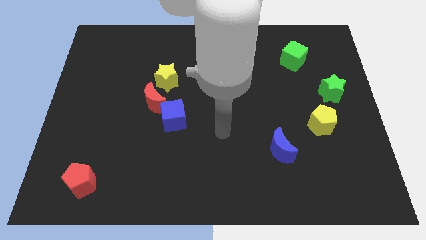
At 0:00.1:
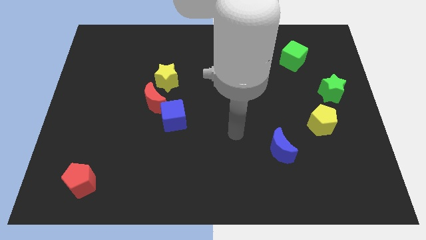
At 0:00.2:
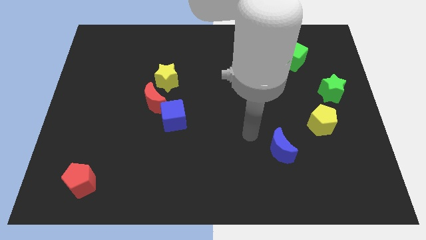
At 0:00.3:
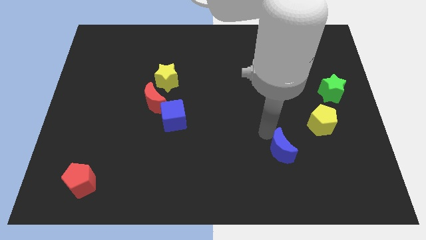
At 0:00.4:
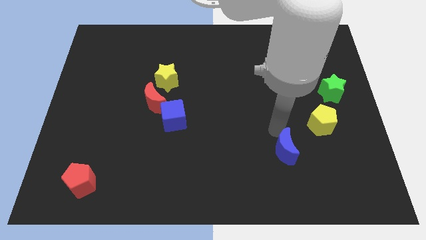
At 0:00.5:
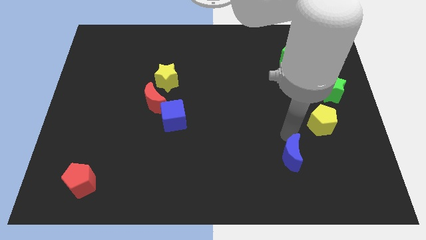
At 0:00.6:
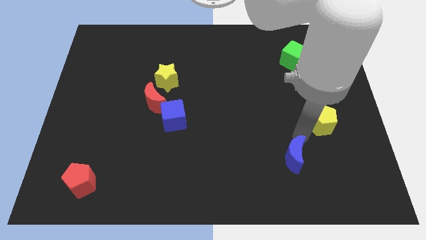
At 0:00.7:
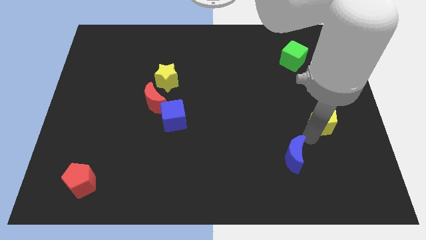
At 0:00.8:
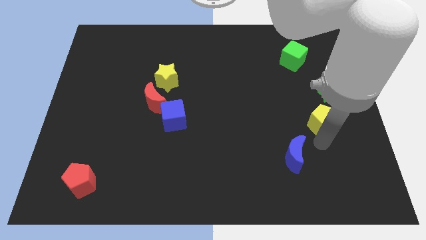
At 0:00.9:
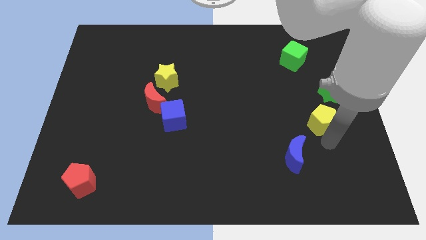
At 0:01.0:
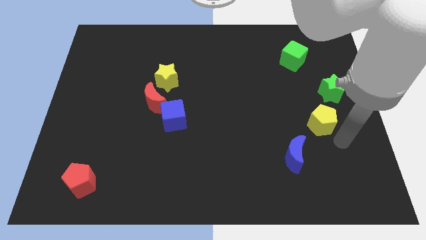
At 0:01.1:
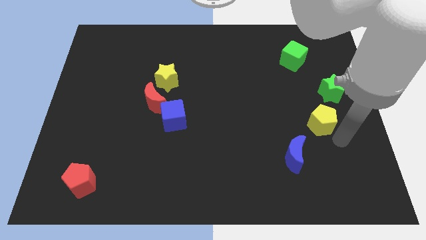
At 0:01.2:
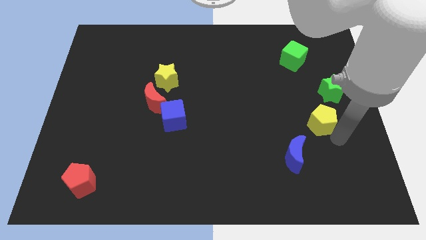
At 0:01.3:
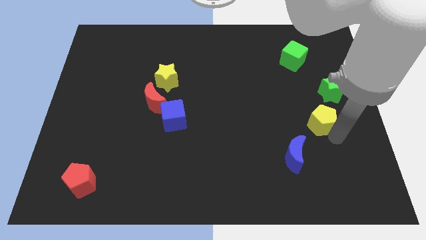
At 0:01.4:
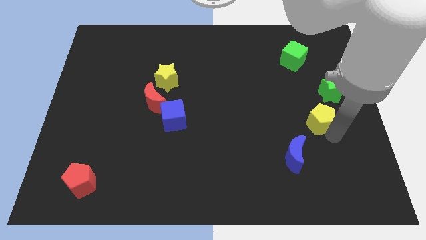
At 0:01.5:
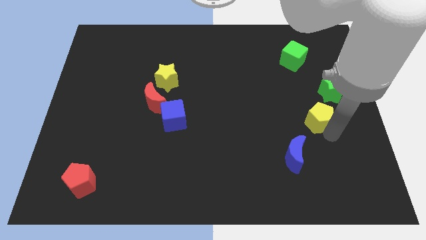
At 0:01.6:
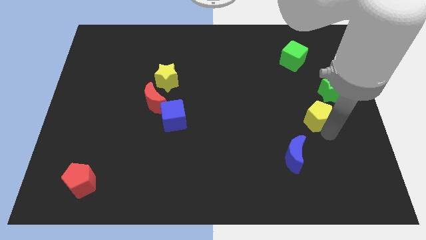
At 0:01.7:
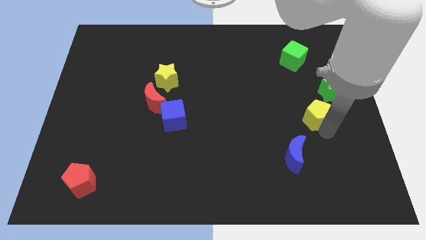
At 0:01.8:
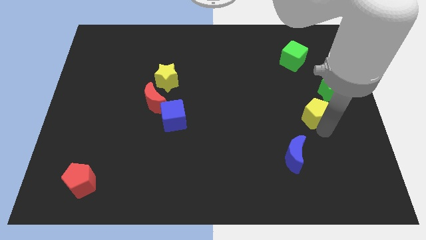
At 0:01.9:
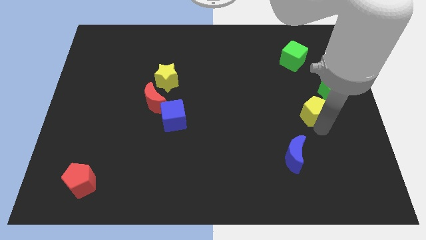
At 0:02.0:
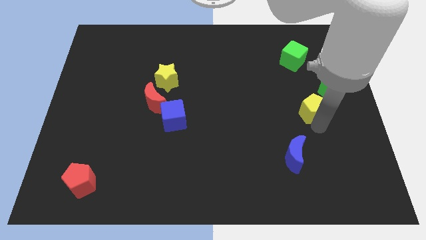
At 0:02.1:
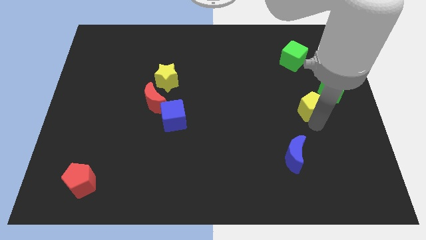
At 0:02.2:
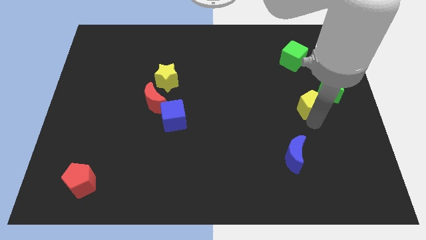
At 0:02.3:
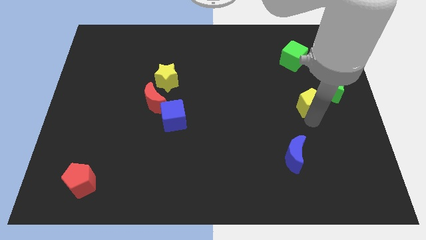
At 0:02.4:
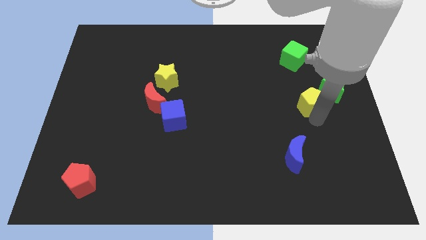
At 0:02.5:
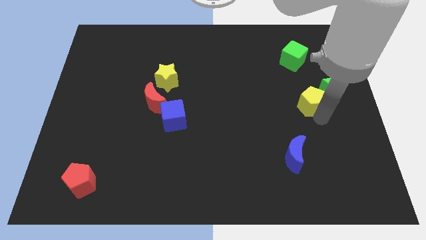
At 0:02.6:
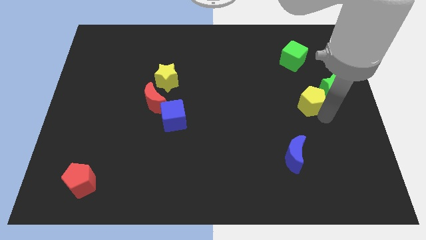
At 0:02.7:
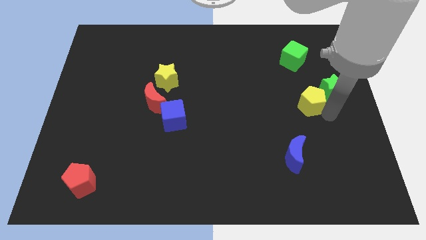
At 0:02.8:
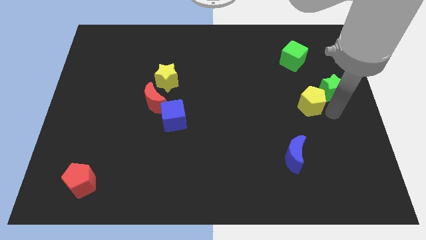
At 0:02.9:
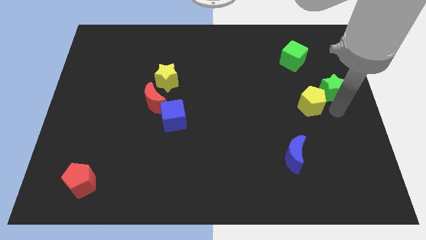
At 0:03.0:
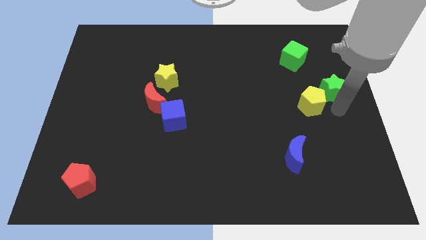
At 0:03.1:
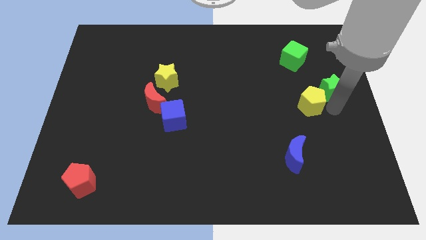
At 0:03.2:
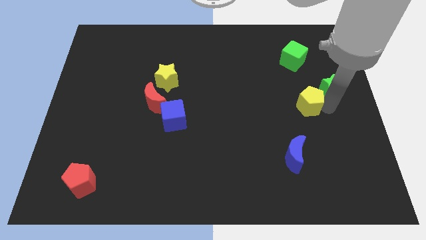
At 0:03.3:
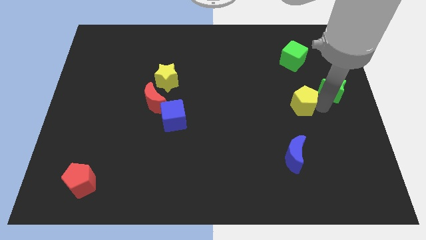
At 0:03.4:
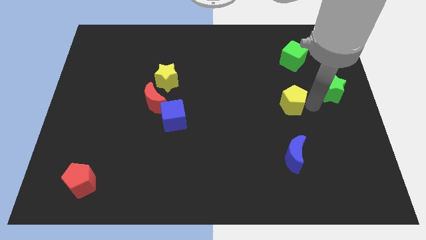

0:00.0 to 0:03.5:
slide the yellow pentagon up and to the left a little bit

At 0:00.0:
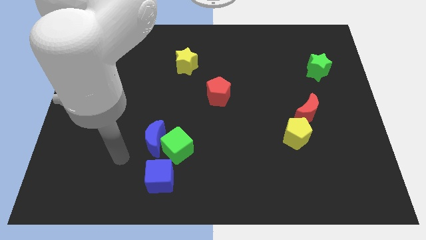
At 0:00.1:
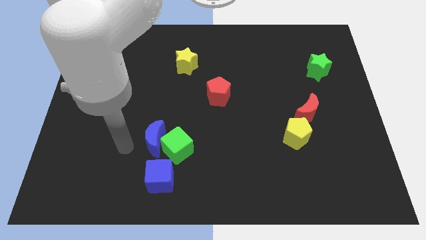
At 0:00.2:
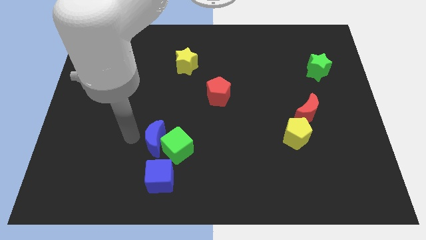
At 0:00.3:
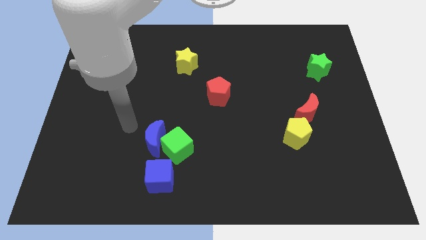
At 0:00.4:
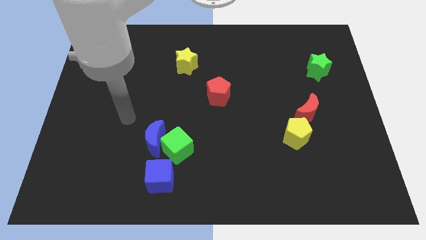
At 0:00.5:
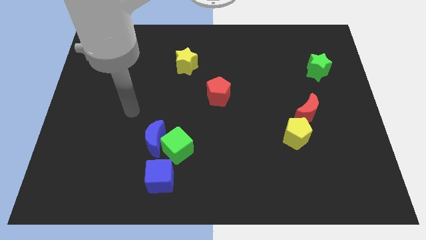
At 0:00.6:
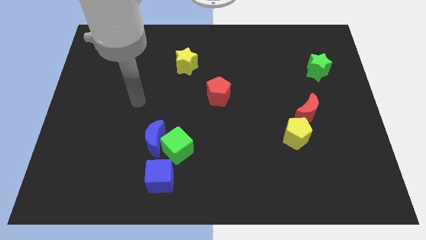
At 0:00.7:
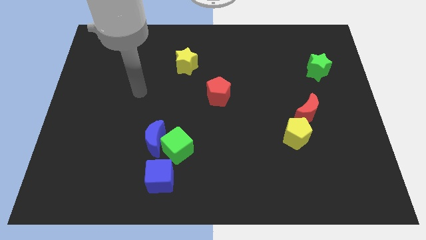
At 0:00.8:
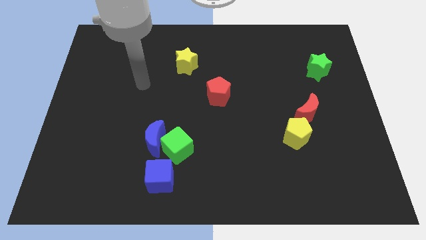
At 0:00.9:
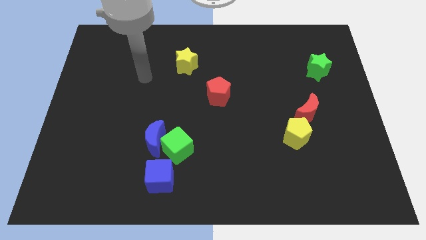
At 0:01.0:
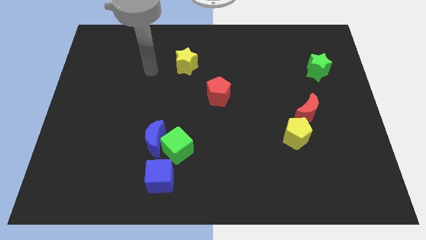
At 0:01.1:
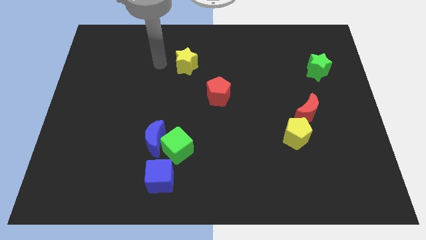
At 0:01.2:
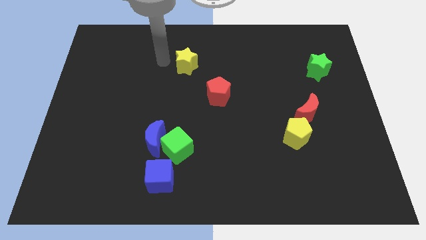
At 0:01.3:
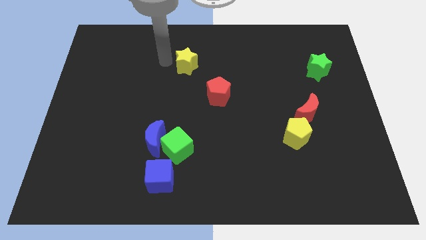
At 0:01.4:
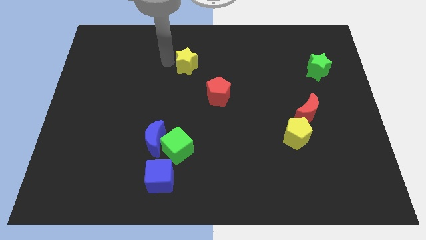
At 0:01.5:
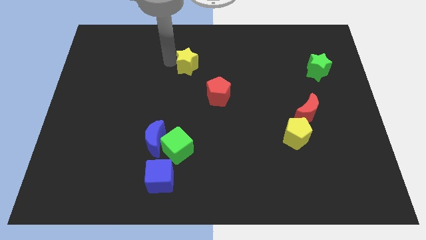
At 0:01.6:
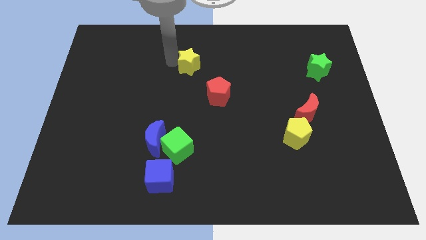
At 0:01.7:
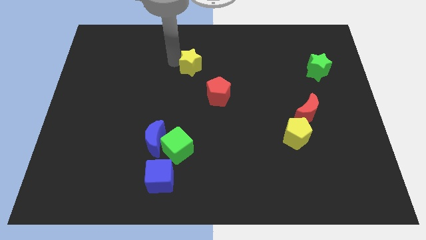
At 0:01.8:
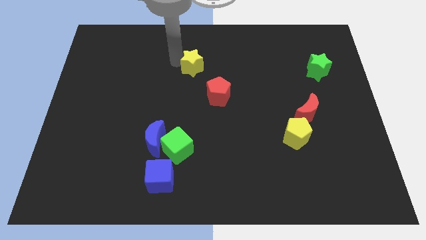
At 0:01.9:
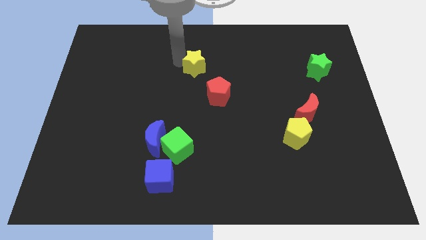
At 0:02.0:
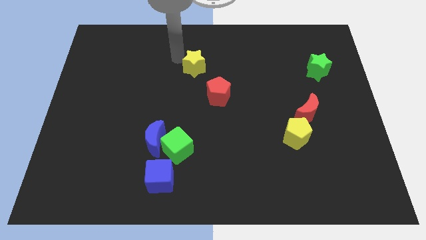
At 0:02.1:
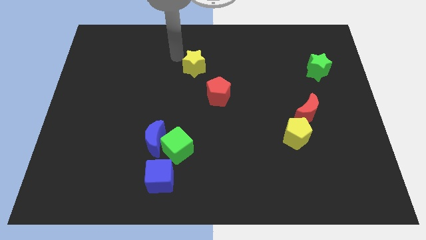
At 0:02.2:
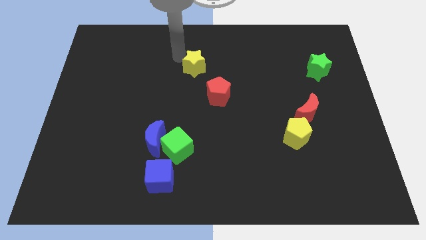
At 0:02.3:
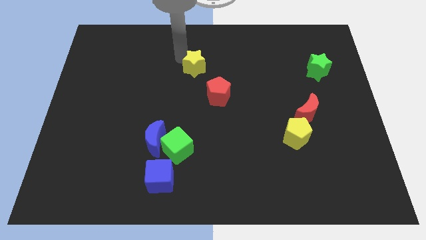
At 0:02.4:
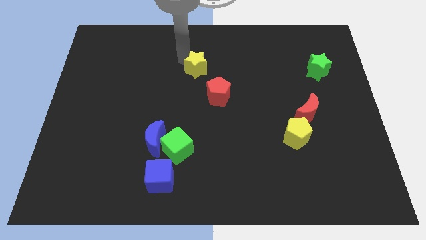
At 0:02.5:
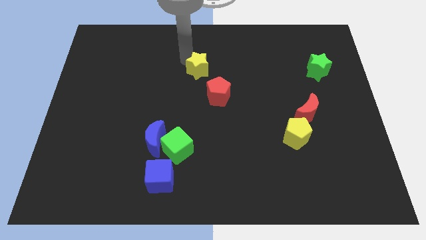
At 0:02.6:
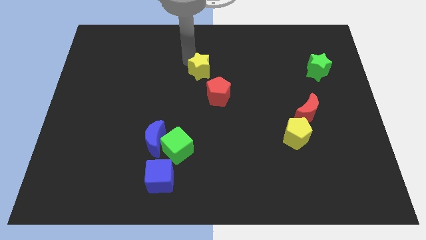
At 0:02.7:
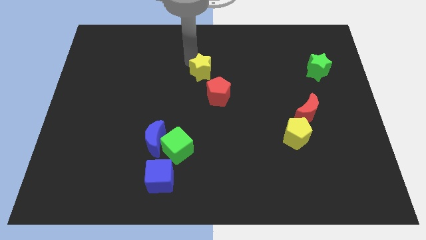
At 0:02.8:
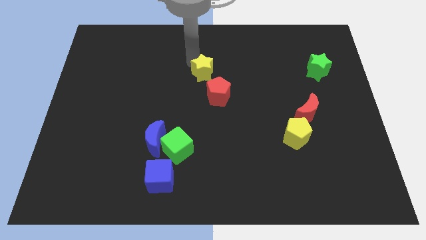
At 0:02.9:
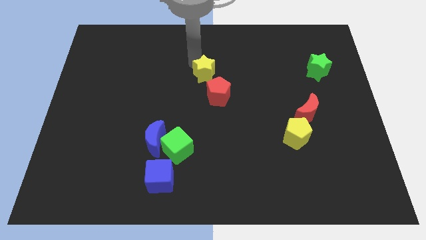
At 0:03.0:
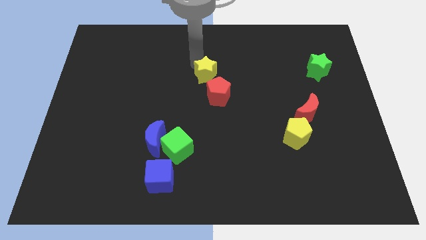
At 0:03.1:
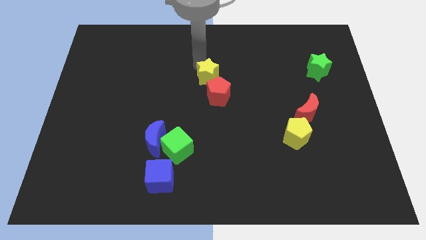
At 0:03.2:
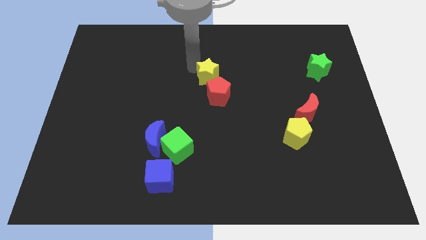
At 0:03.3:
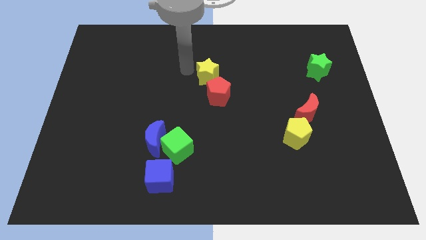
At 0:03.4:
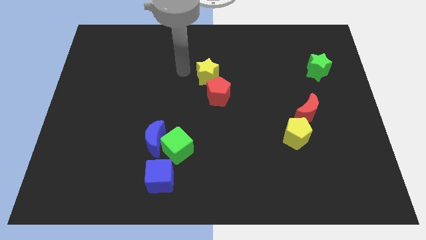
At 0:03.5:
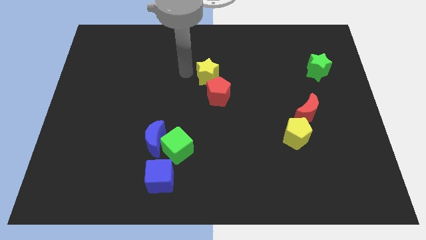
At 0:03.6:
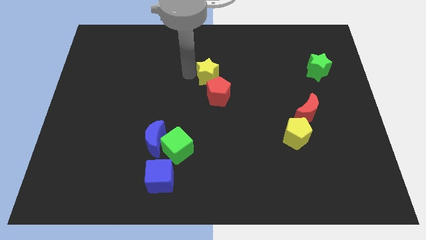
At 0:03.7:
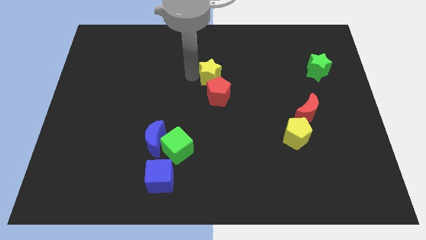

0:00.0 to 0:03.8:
slightly move the yellow star diagonally downwards and to the right

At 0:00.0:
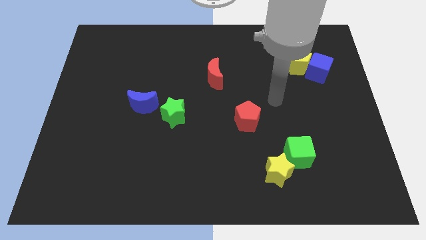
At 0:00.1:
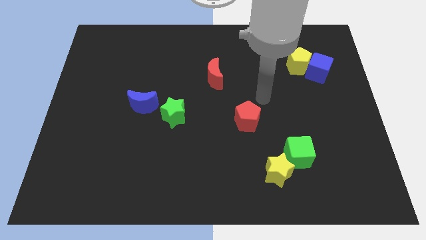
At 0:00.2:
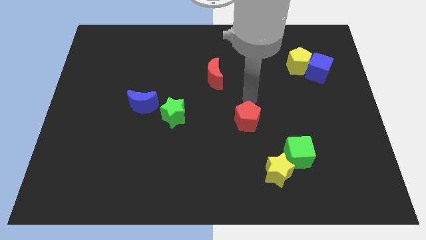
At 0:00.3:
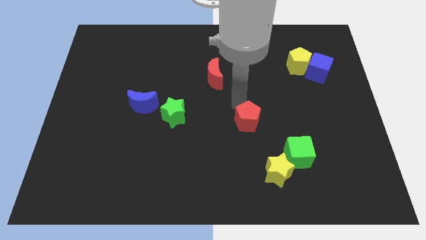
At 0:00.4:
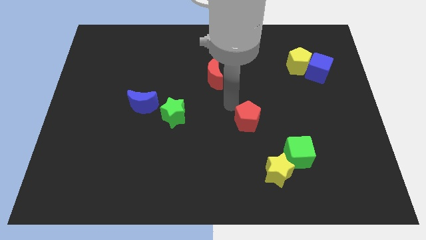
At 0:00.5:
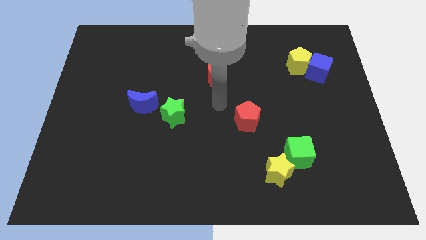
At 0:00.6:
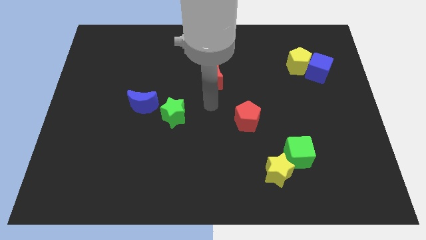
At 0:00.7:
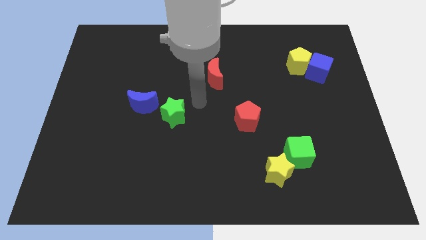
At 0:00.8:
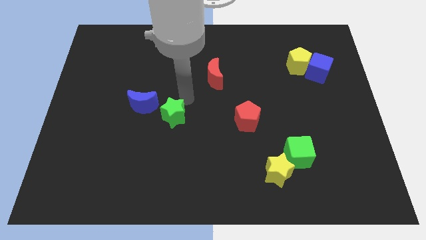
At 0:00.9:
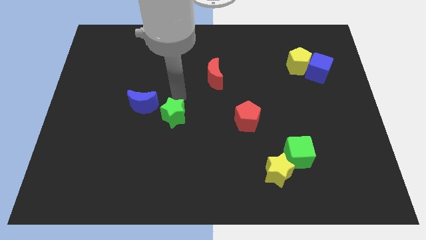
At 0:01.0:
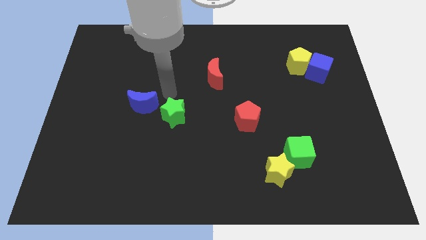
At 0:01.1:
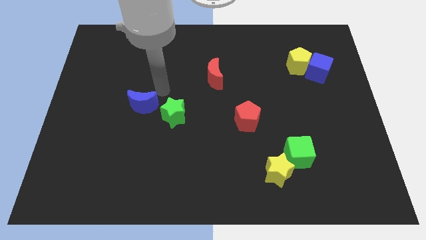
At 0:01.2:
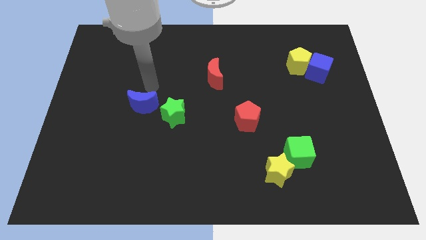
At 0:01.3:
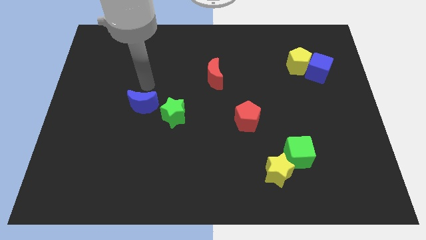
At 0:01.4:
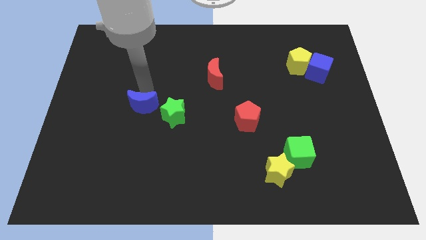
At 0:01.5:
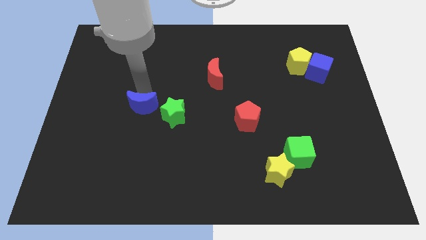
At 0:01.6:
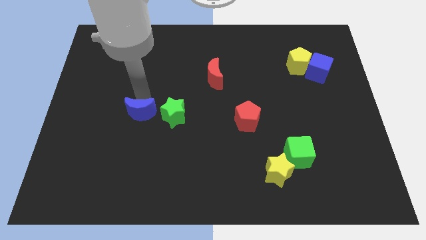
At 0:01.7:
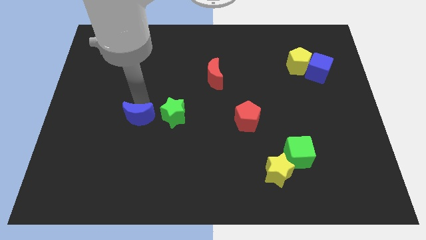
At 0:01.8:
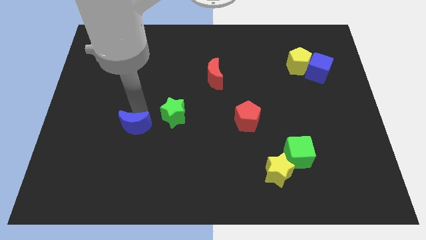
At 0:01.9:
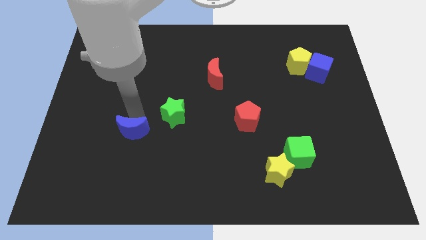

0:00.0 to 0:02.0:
push the blue moon downwards a little
